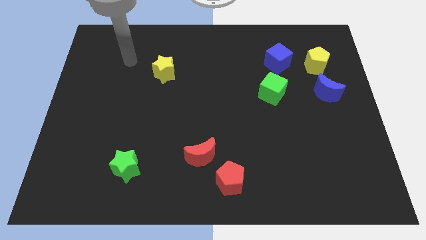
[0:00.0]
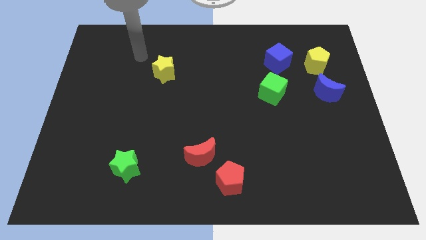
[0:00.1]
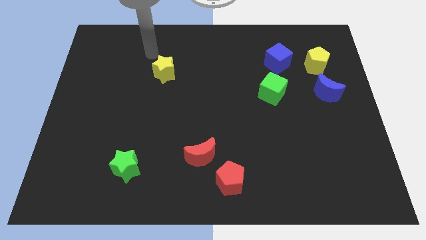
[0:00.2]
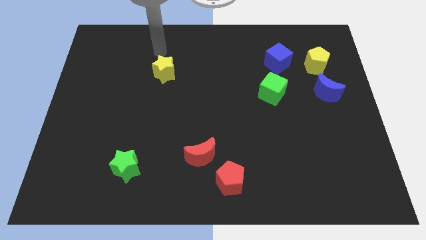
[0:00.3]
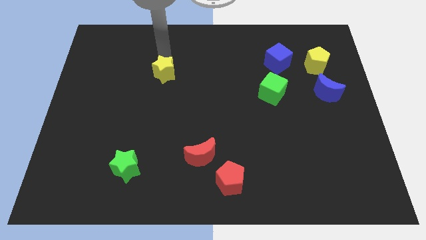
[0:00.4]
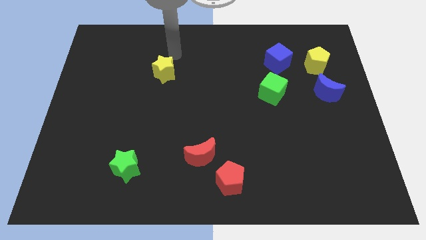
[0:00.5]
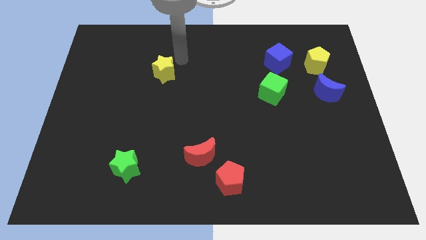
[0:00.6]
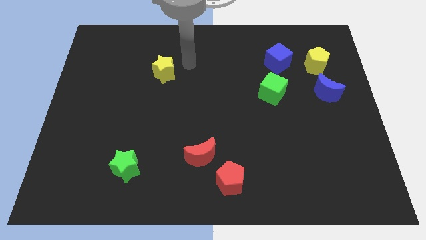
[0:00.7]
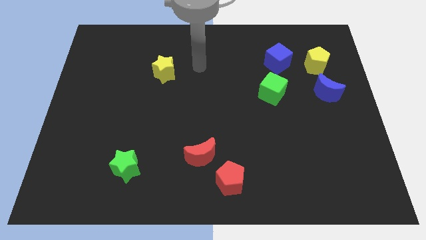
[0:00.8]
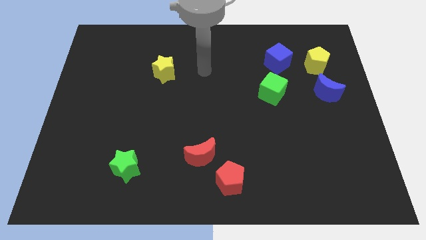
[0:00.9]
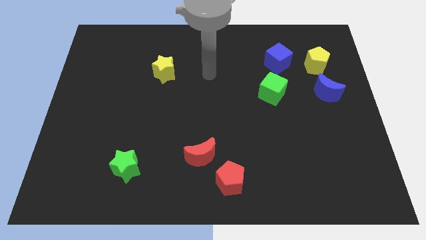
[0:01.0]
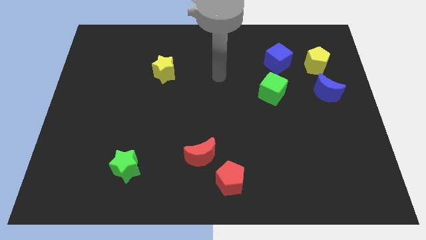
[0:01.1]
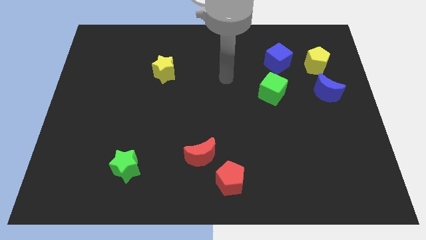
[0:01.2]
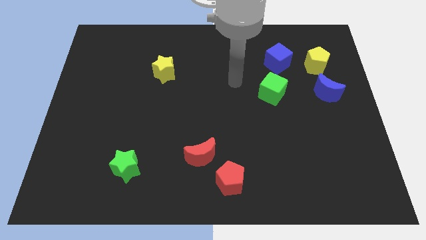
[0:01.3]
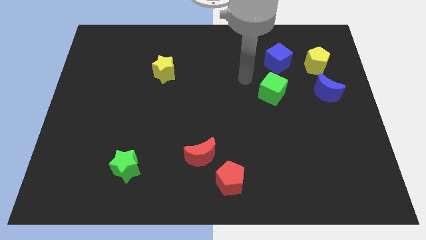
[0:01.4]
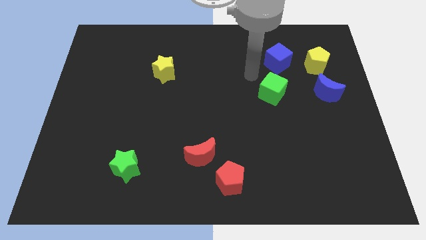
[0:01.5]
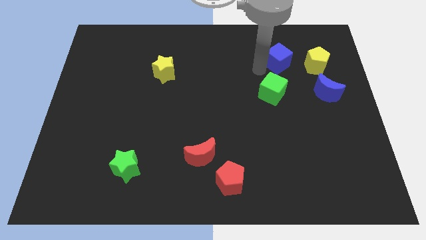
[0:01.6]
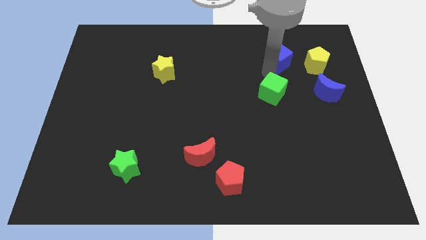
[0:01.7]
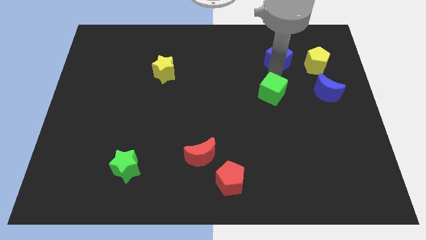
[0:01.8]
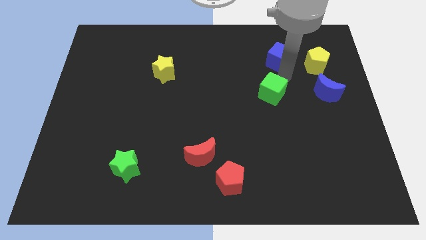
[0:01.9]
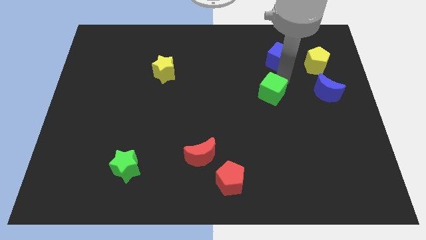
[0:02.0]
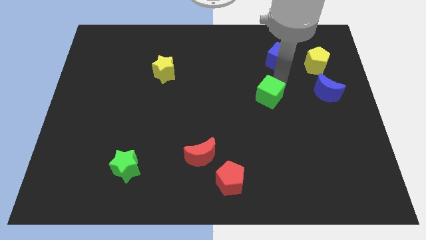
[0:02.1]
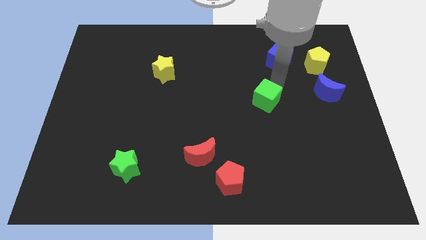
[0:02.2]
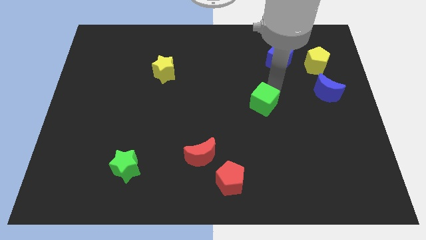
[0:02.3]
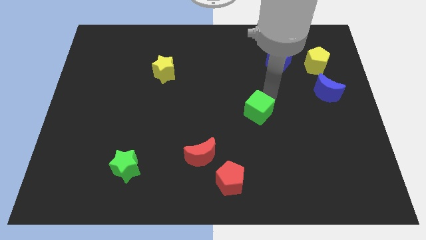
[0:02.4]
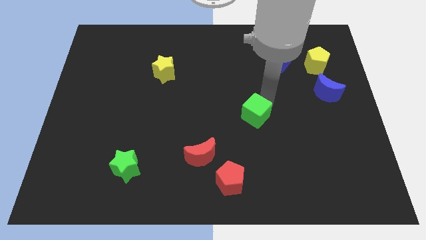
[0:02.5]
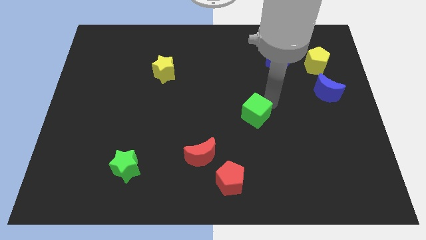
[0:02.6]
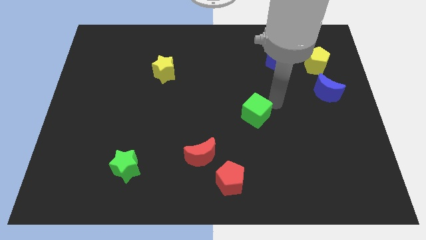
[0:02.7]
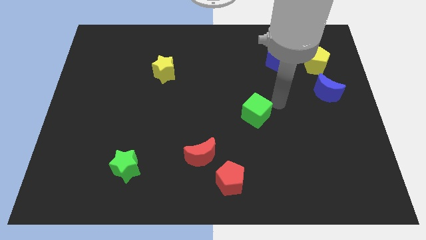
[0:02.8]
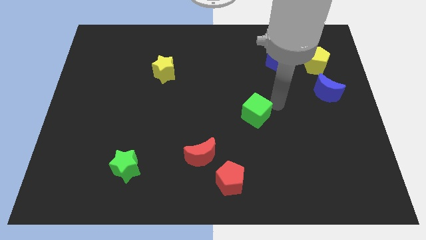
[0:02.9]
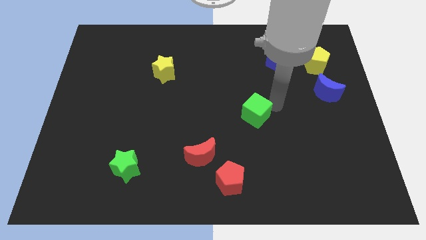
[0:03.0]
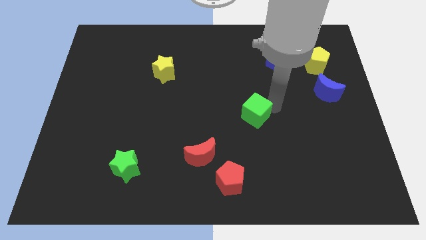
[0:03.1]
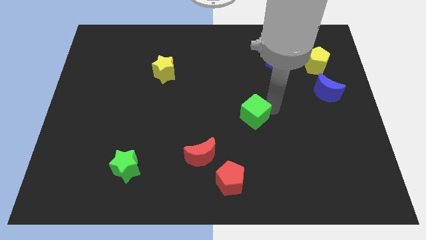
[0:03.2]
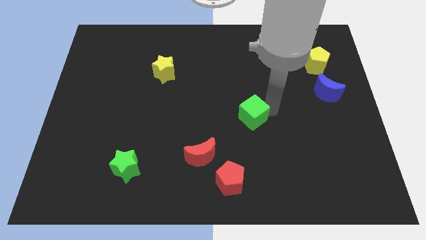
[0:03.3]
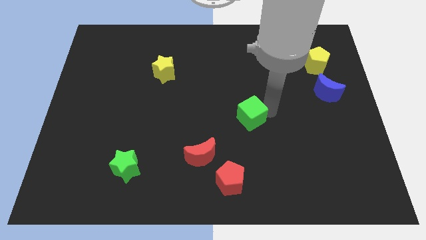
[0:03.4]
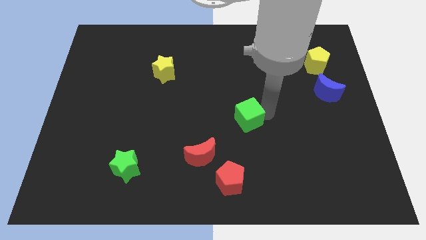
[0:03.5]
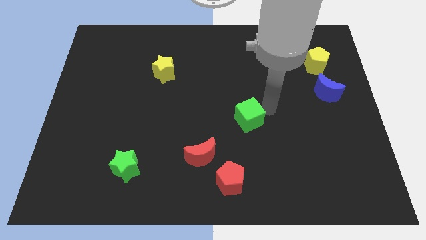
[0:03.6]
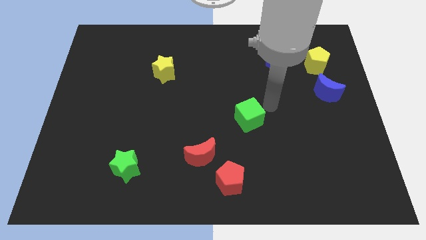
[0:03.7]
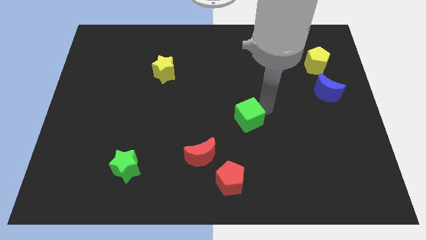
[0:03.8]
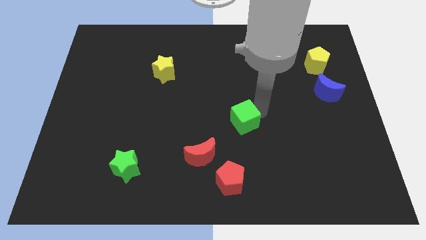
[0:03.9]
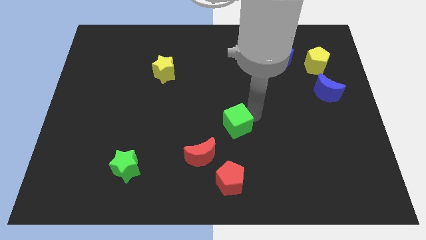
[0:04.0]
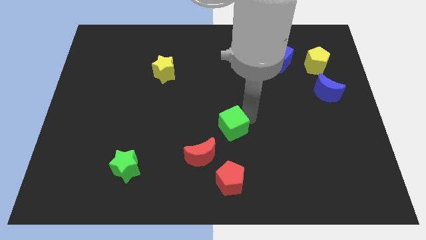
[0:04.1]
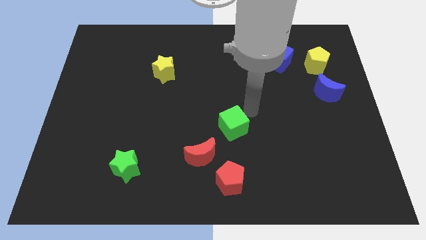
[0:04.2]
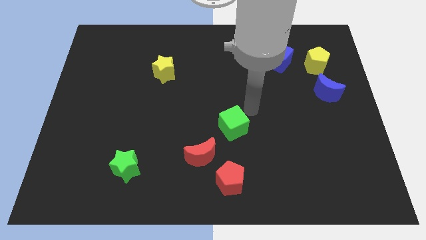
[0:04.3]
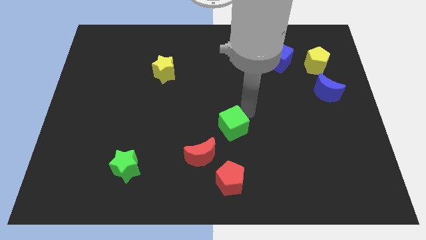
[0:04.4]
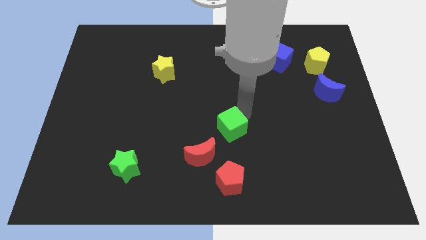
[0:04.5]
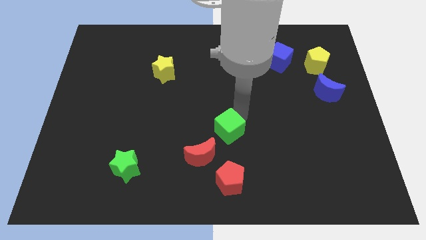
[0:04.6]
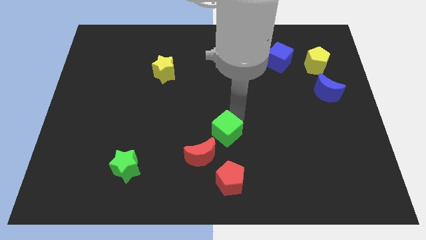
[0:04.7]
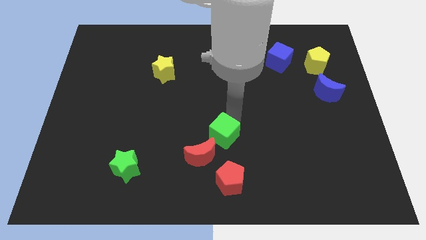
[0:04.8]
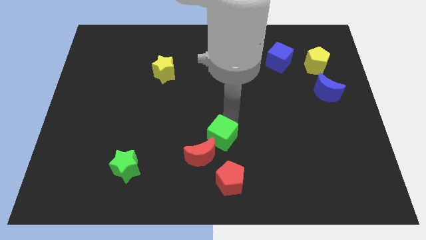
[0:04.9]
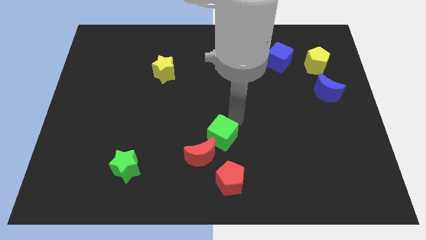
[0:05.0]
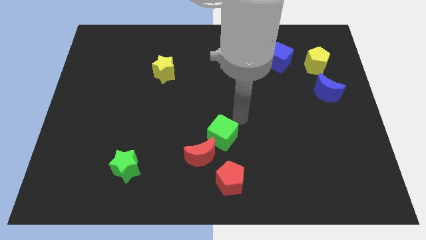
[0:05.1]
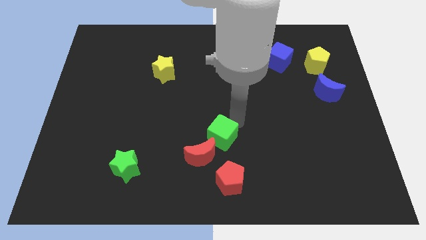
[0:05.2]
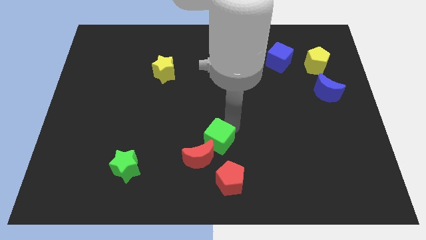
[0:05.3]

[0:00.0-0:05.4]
slide the green cube towards the red moon
